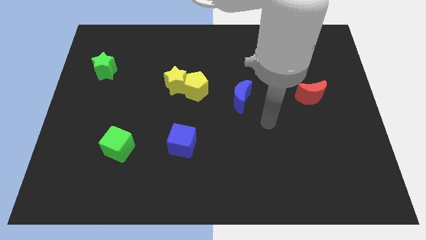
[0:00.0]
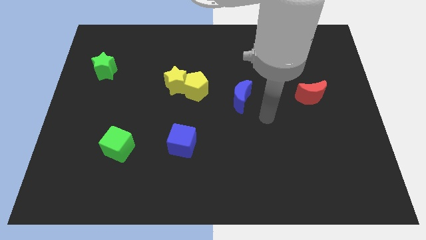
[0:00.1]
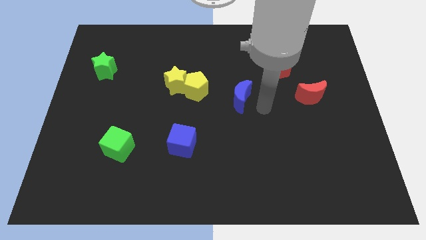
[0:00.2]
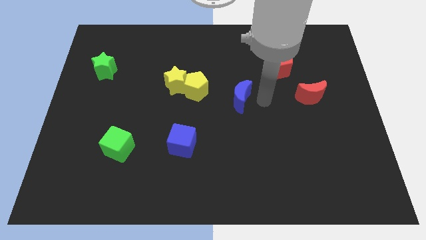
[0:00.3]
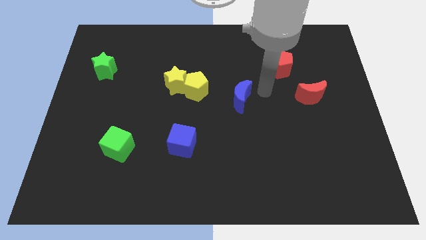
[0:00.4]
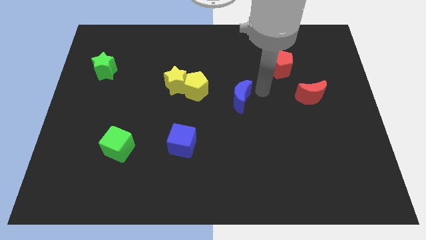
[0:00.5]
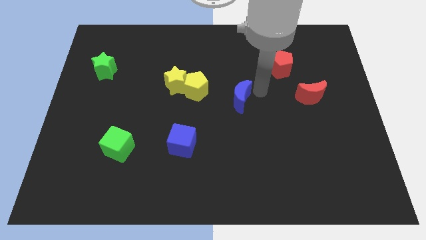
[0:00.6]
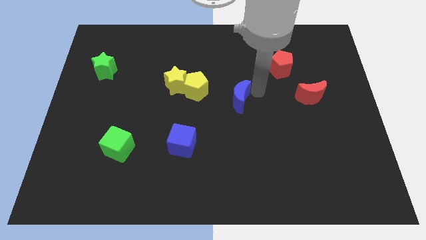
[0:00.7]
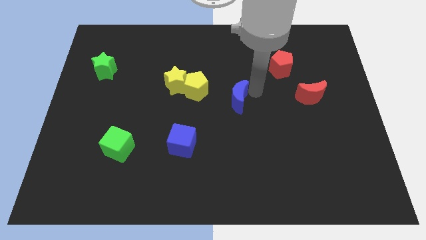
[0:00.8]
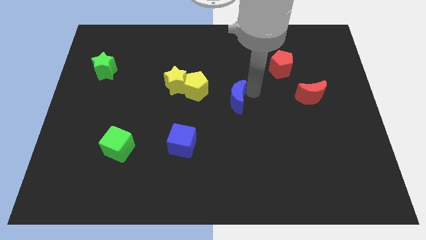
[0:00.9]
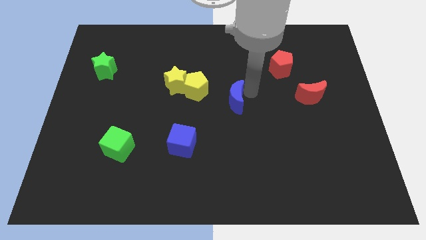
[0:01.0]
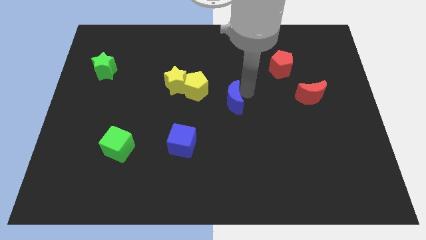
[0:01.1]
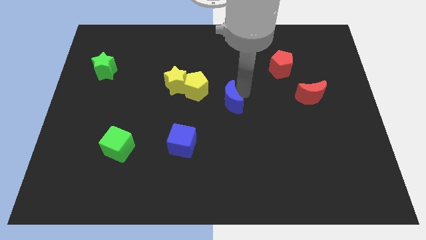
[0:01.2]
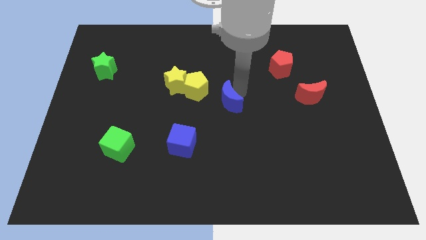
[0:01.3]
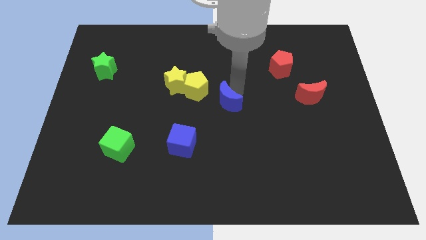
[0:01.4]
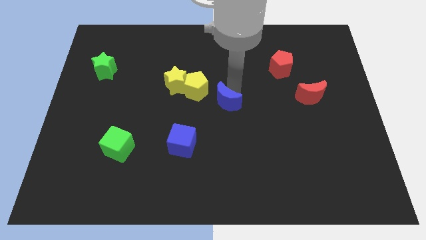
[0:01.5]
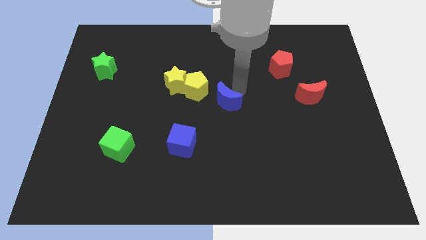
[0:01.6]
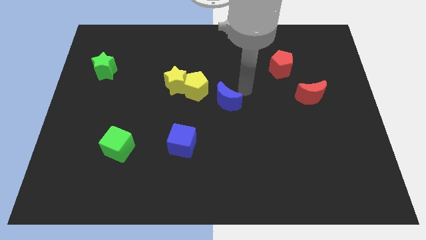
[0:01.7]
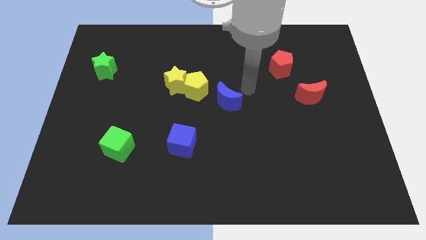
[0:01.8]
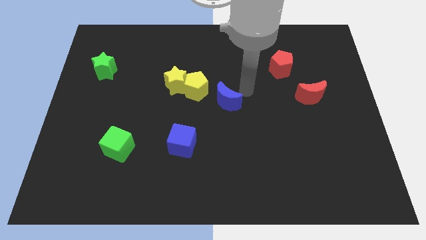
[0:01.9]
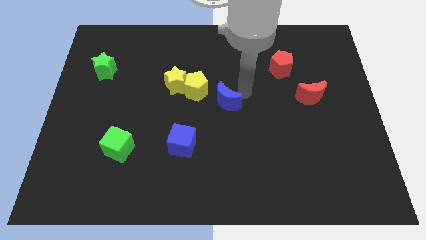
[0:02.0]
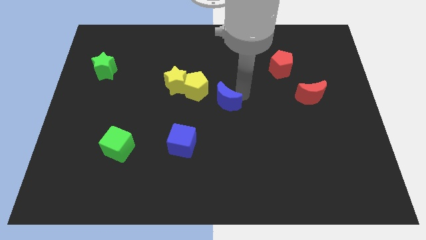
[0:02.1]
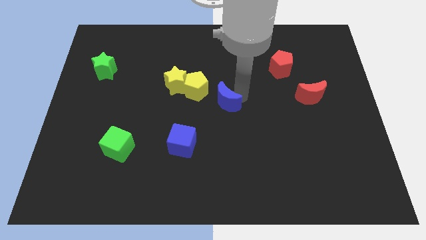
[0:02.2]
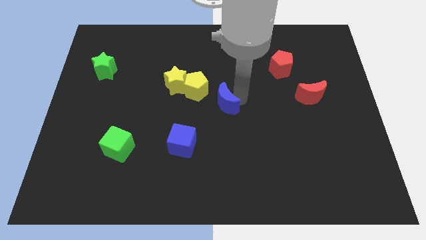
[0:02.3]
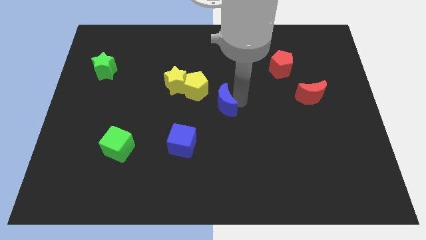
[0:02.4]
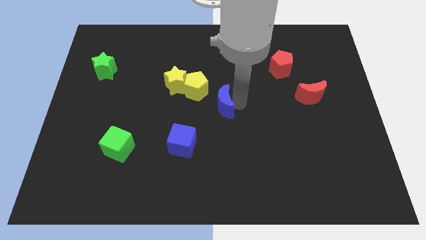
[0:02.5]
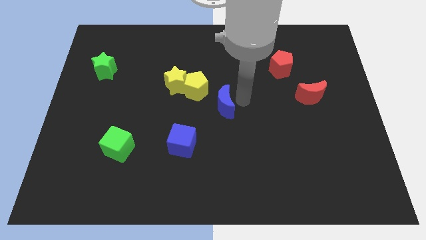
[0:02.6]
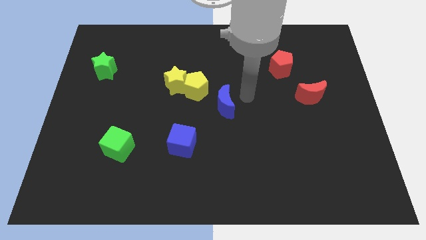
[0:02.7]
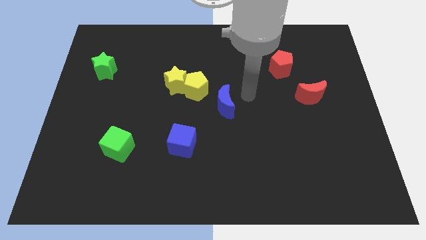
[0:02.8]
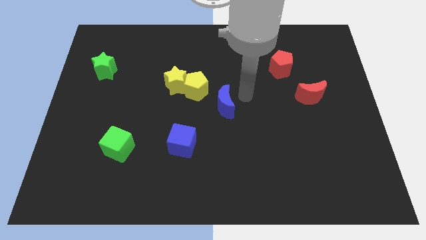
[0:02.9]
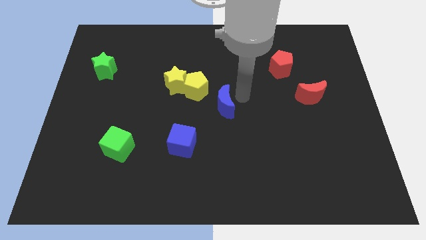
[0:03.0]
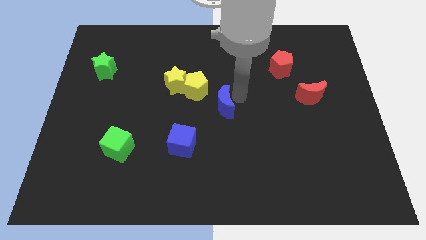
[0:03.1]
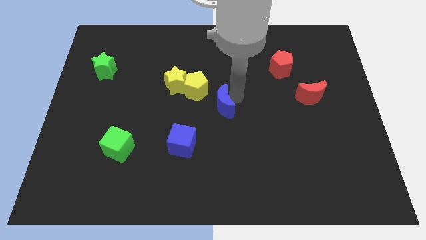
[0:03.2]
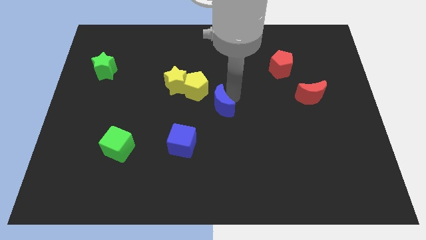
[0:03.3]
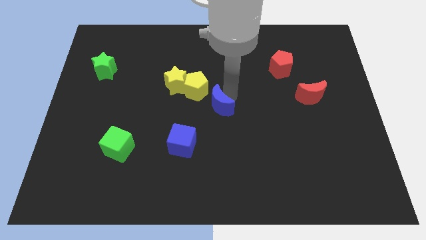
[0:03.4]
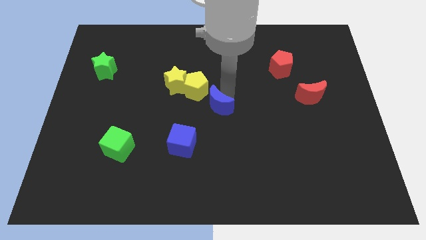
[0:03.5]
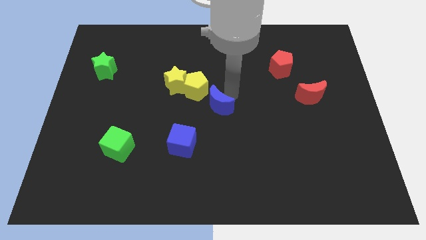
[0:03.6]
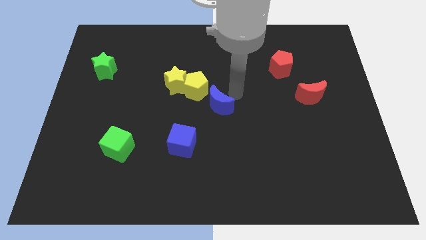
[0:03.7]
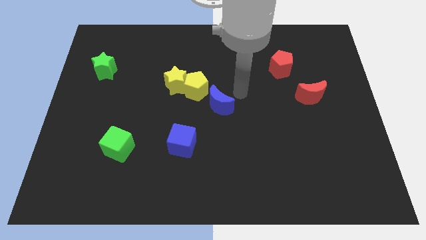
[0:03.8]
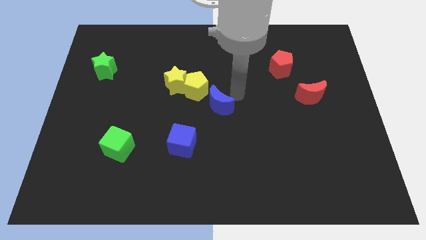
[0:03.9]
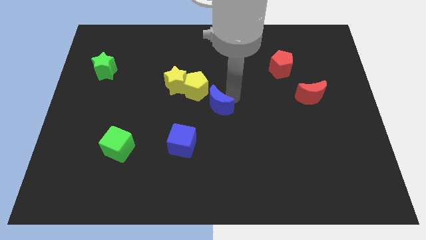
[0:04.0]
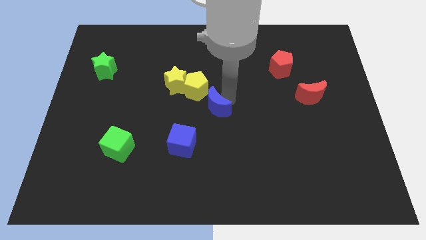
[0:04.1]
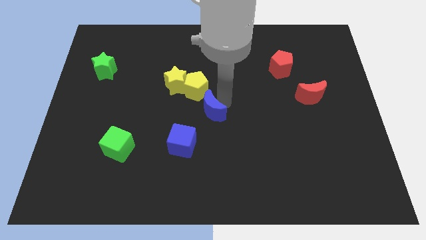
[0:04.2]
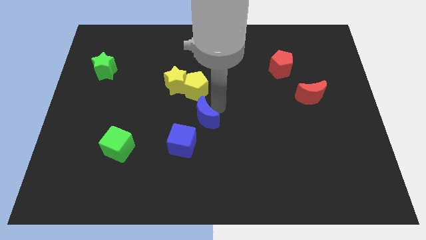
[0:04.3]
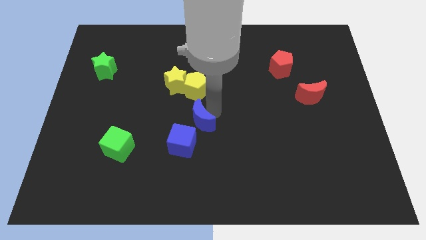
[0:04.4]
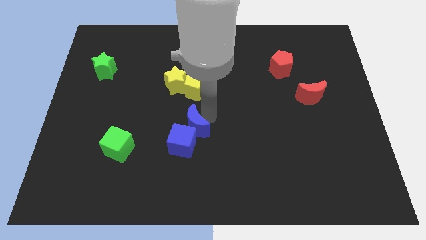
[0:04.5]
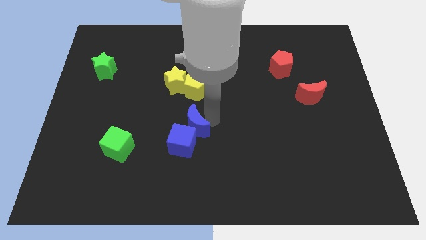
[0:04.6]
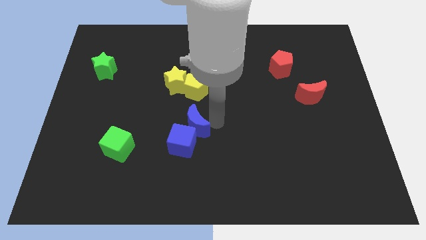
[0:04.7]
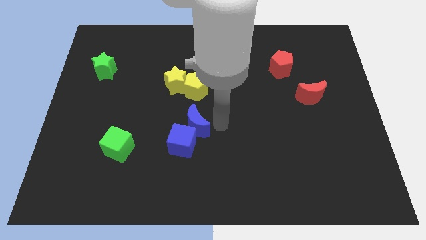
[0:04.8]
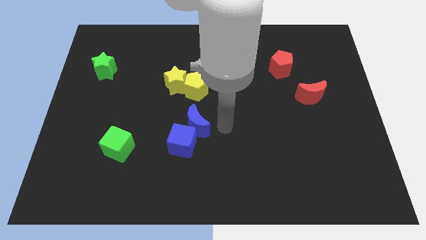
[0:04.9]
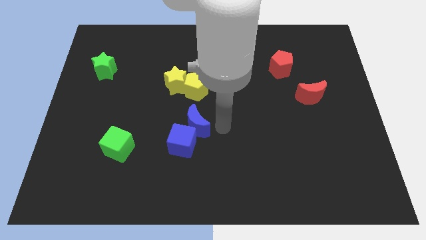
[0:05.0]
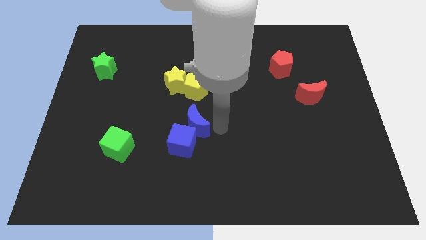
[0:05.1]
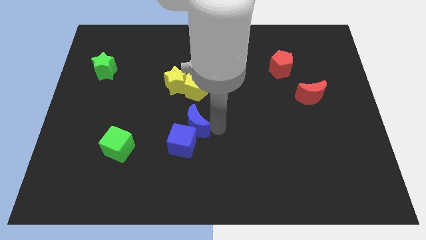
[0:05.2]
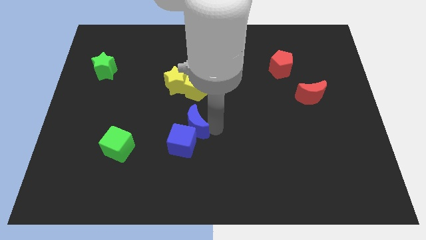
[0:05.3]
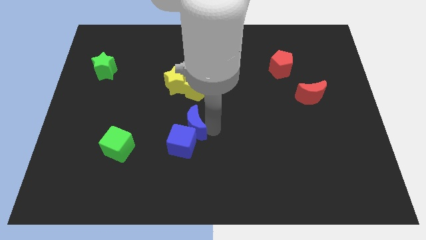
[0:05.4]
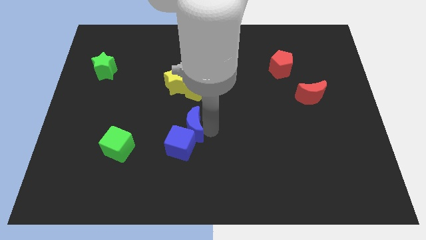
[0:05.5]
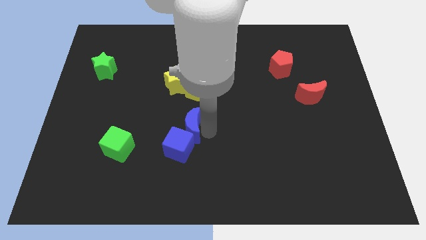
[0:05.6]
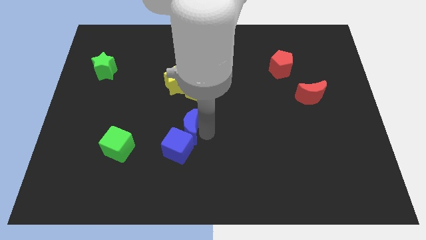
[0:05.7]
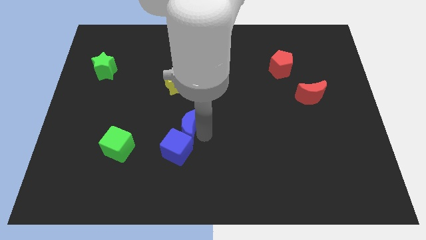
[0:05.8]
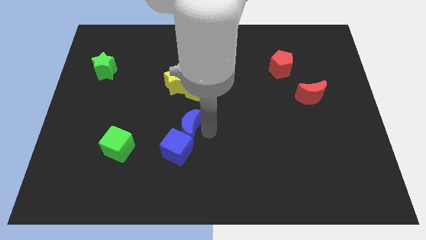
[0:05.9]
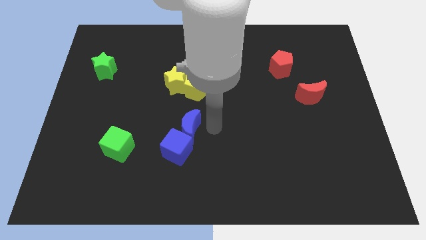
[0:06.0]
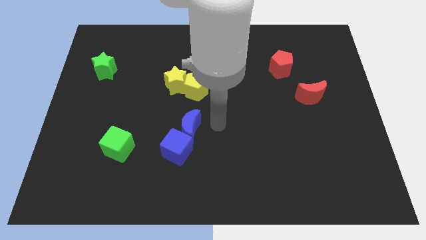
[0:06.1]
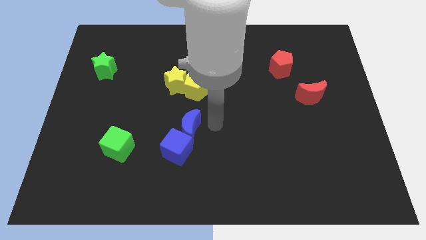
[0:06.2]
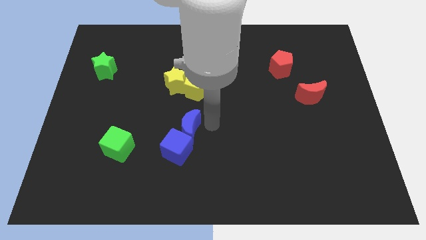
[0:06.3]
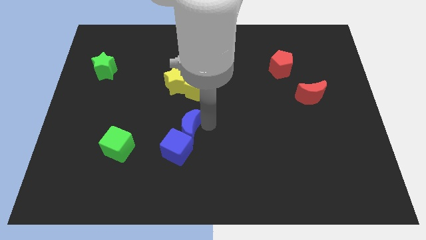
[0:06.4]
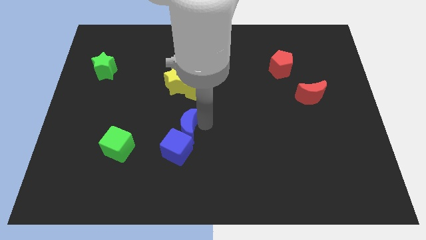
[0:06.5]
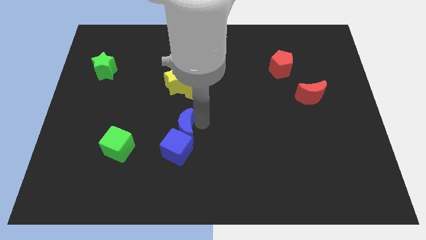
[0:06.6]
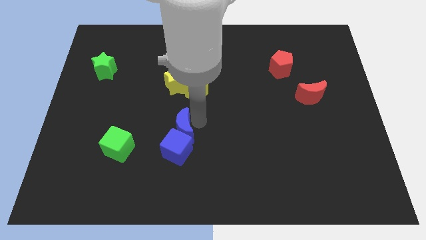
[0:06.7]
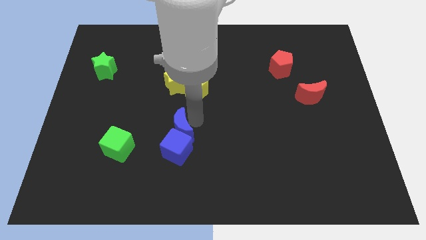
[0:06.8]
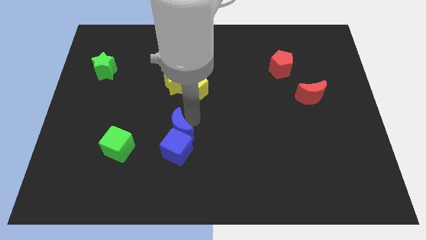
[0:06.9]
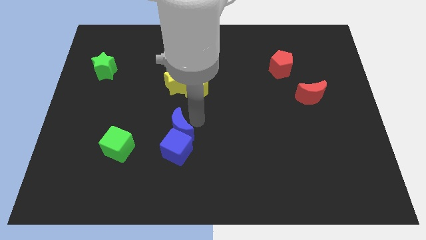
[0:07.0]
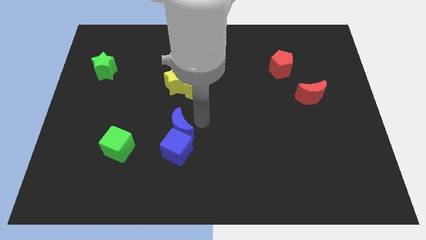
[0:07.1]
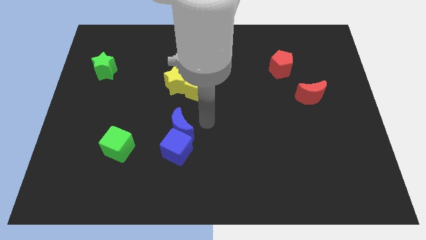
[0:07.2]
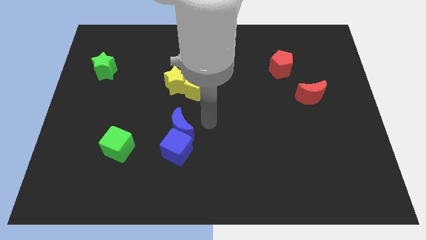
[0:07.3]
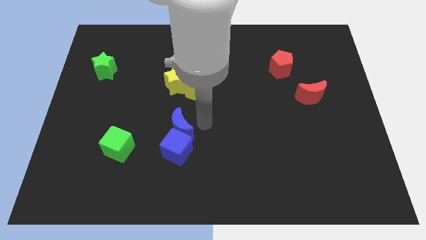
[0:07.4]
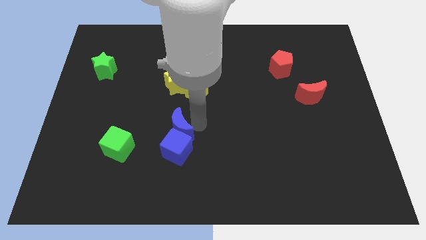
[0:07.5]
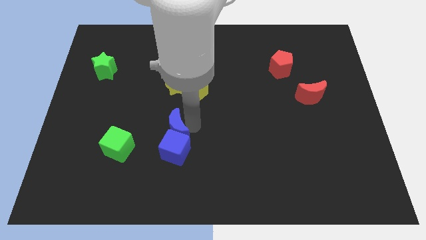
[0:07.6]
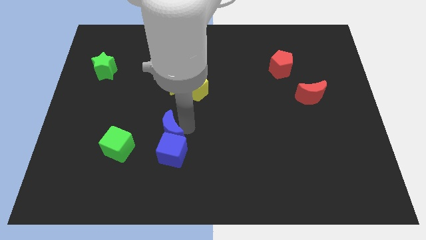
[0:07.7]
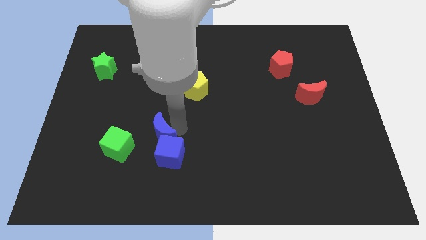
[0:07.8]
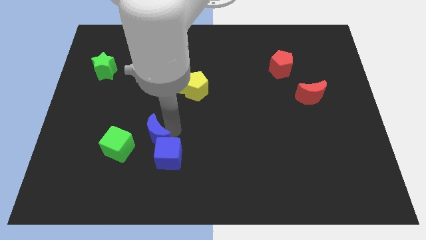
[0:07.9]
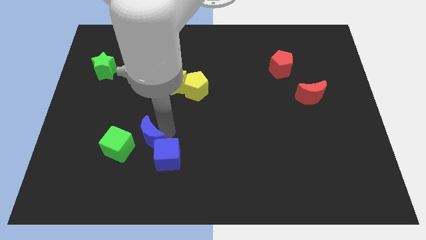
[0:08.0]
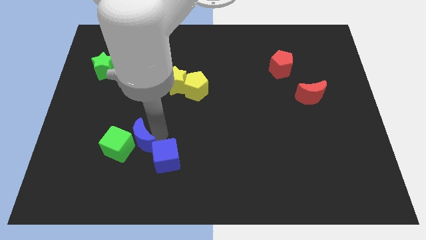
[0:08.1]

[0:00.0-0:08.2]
push the blue moon close to the green cube
